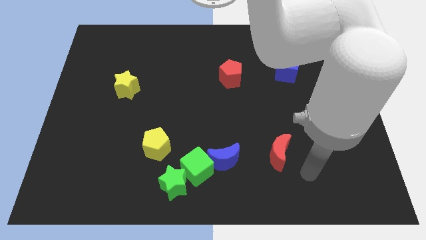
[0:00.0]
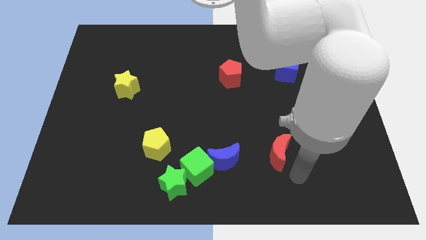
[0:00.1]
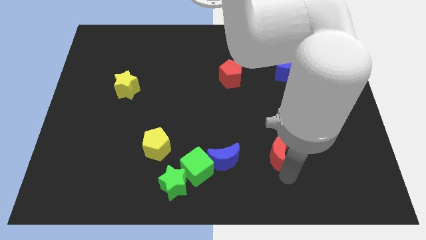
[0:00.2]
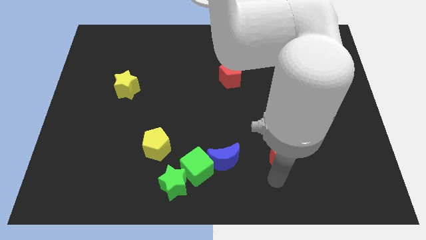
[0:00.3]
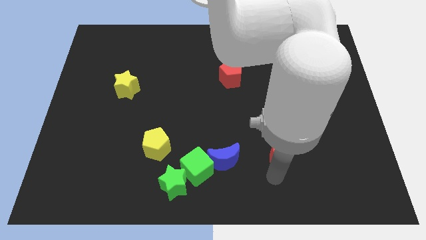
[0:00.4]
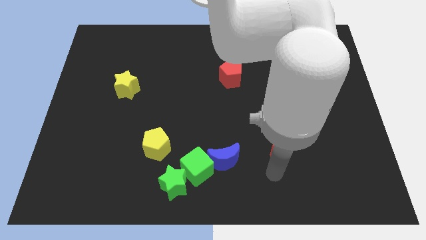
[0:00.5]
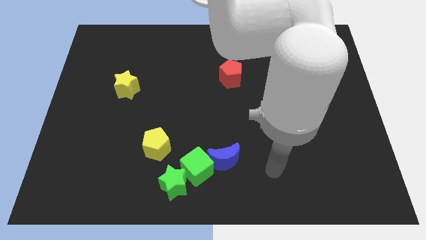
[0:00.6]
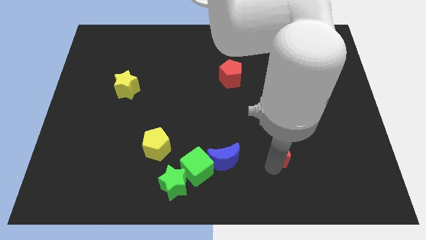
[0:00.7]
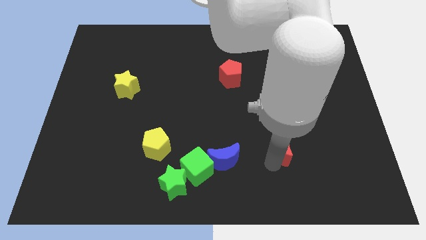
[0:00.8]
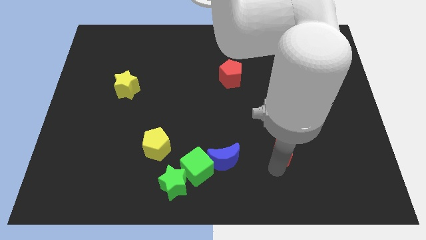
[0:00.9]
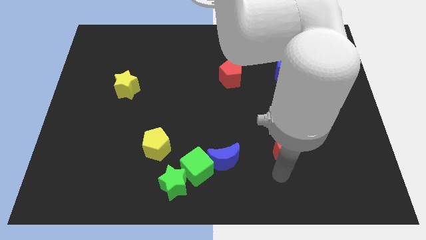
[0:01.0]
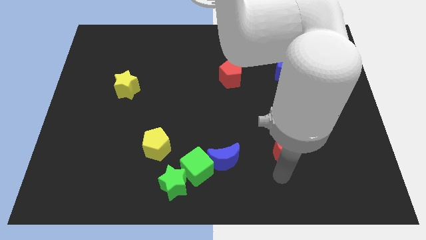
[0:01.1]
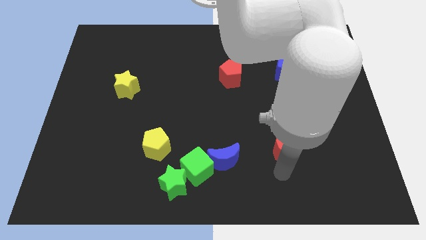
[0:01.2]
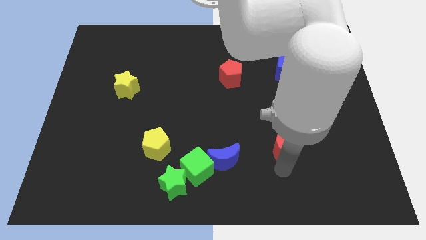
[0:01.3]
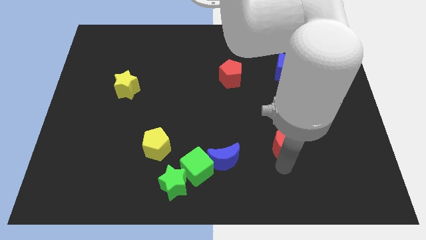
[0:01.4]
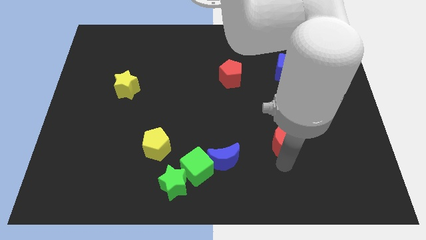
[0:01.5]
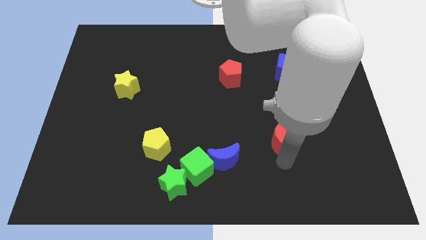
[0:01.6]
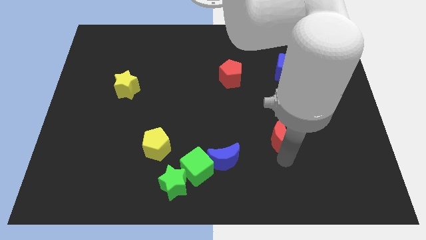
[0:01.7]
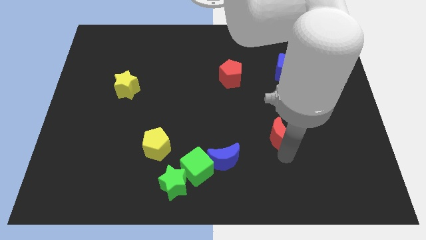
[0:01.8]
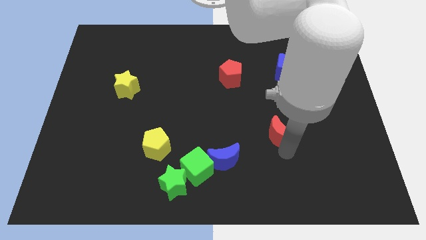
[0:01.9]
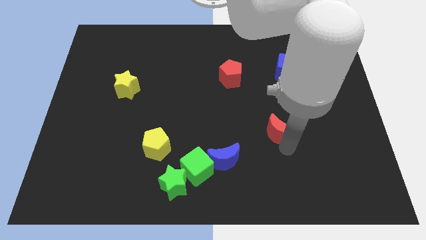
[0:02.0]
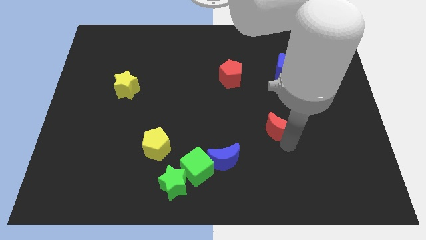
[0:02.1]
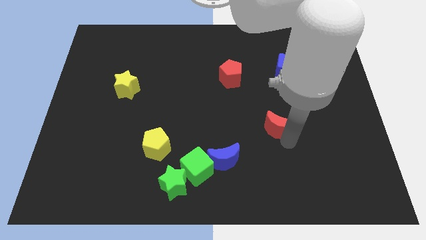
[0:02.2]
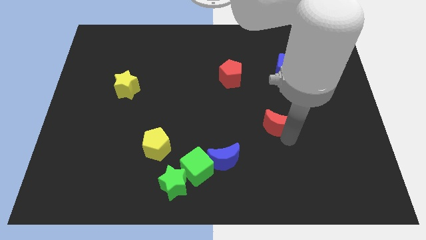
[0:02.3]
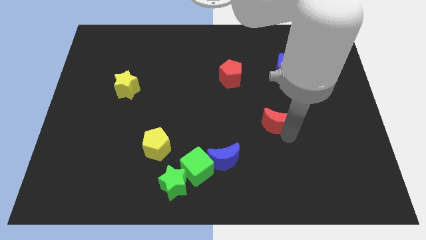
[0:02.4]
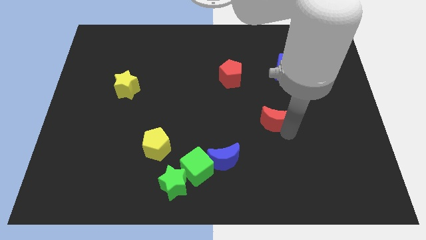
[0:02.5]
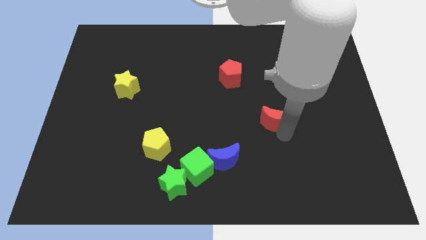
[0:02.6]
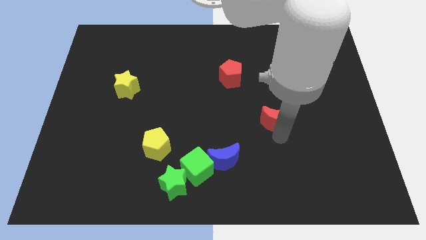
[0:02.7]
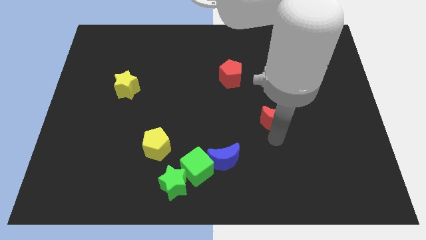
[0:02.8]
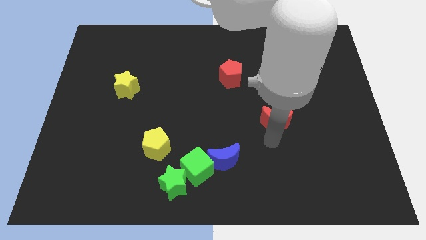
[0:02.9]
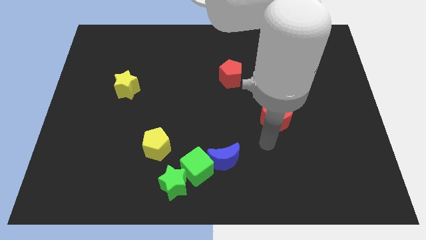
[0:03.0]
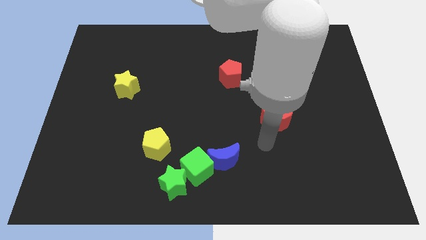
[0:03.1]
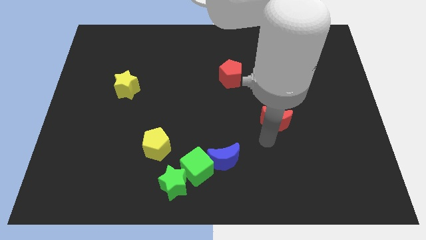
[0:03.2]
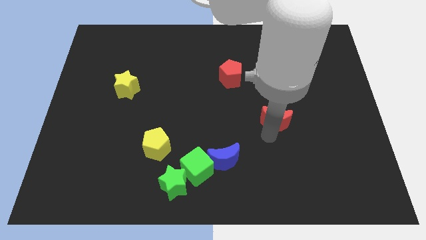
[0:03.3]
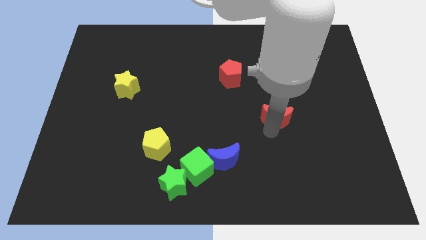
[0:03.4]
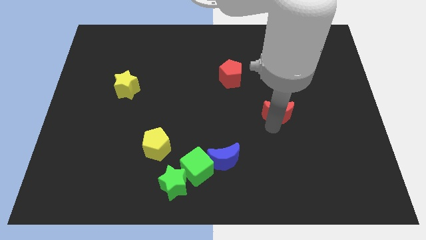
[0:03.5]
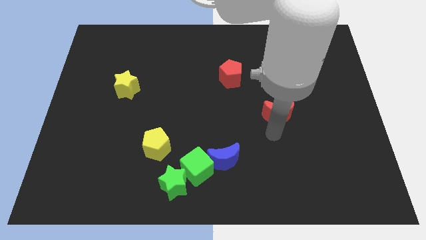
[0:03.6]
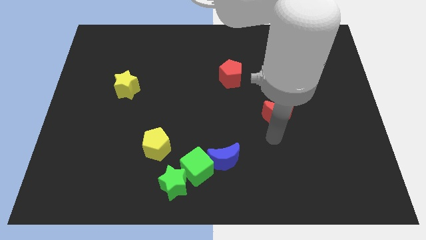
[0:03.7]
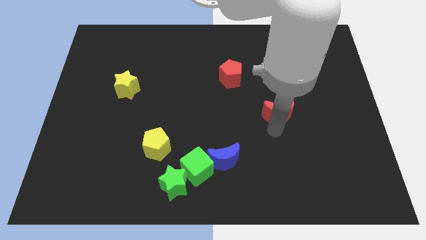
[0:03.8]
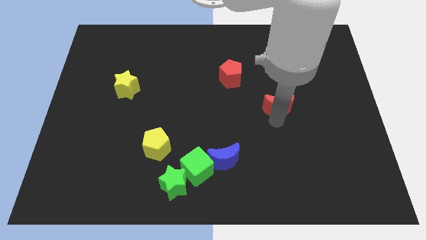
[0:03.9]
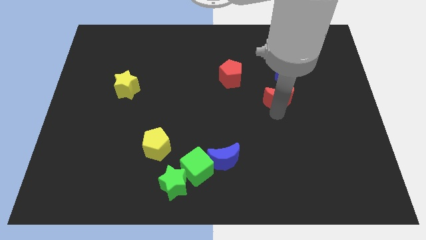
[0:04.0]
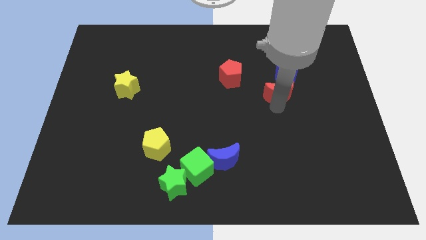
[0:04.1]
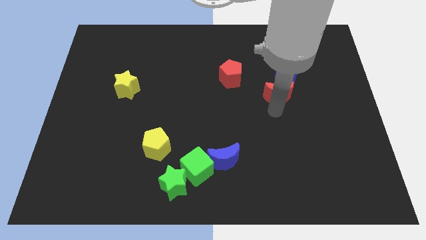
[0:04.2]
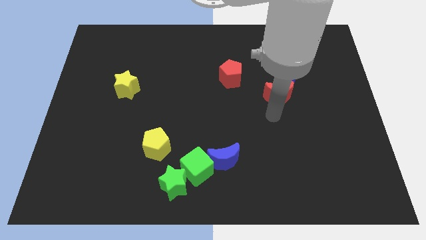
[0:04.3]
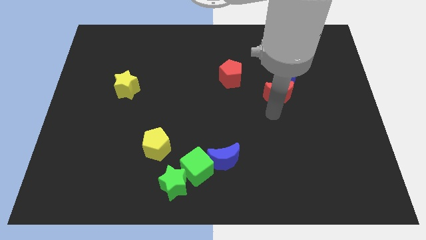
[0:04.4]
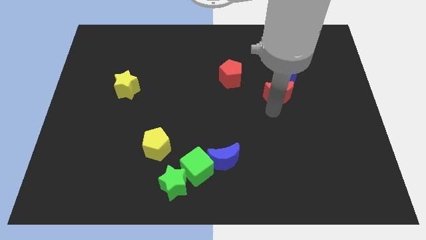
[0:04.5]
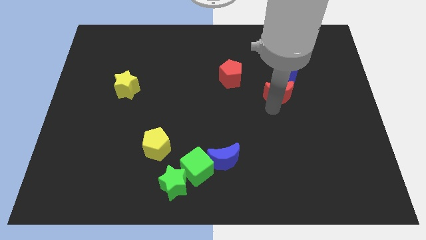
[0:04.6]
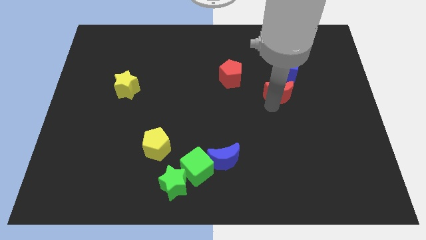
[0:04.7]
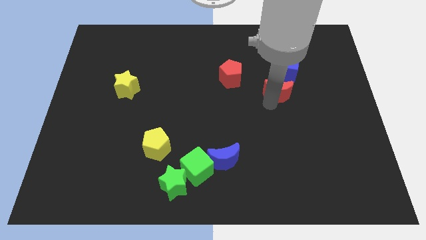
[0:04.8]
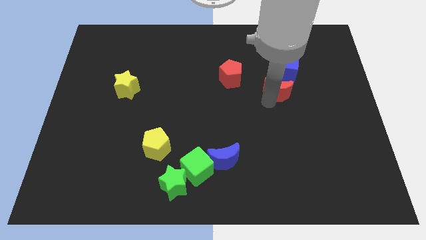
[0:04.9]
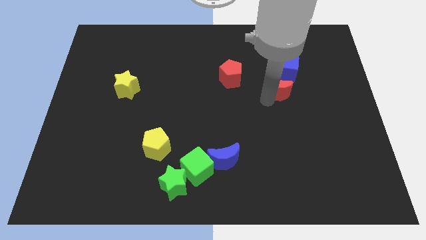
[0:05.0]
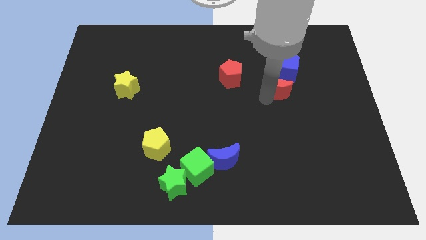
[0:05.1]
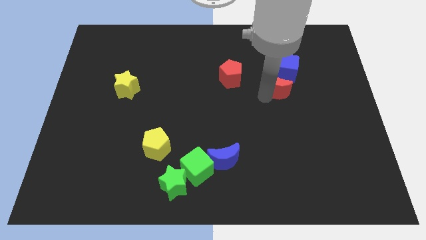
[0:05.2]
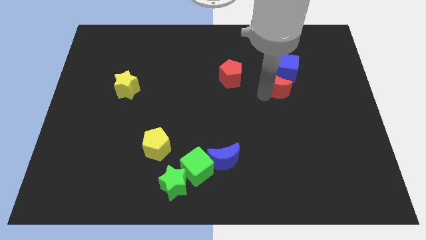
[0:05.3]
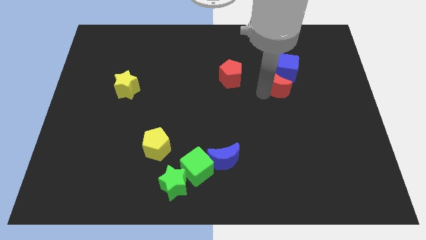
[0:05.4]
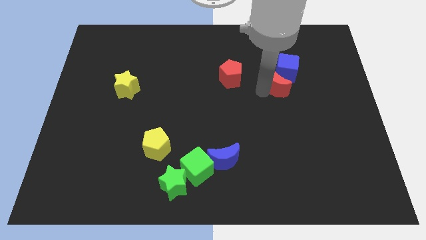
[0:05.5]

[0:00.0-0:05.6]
move the red moon to the blue cube

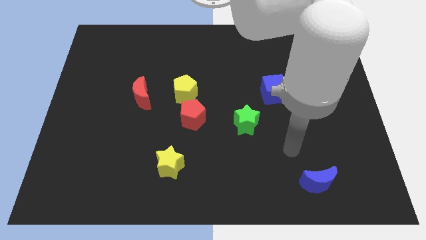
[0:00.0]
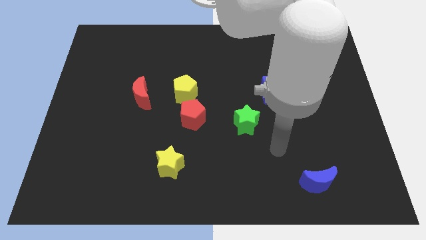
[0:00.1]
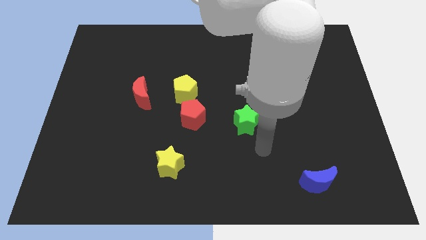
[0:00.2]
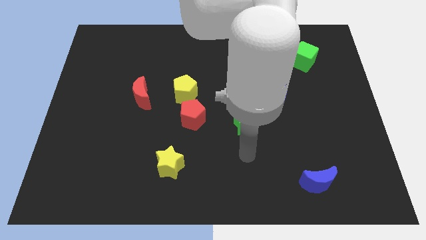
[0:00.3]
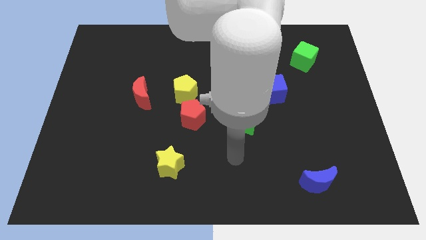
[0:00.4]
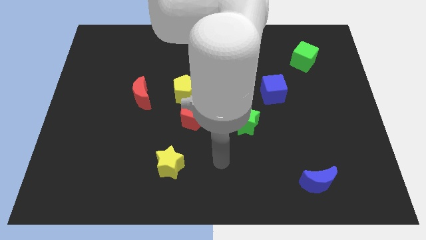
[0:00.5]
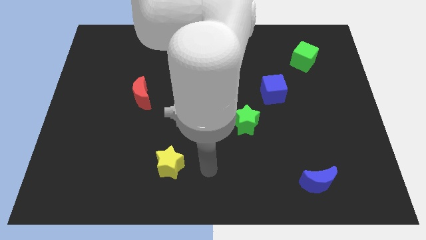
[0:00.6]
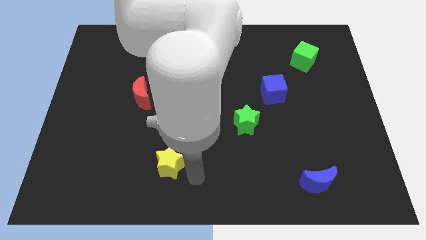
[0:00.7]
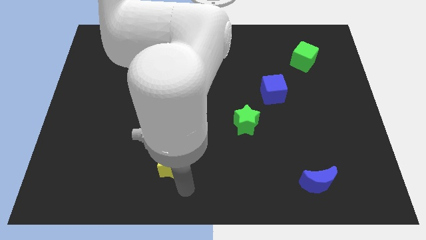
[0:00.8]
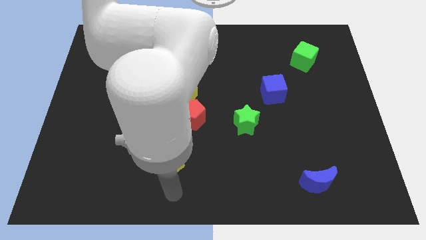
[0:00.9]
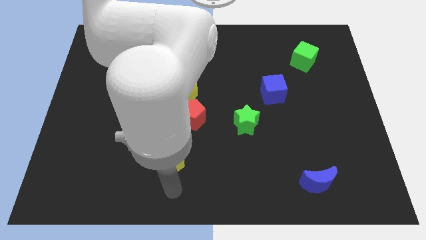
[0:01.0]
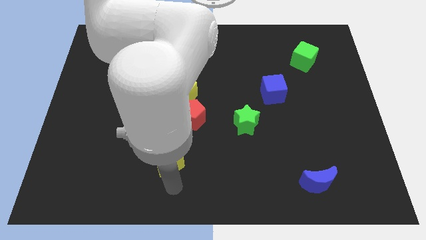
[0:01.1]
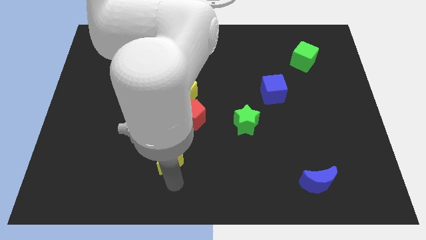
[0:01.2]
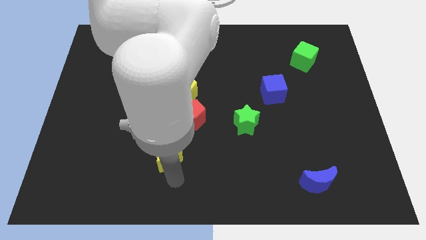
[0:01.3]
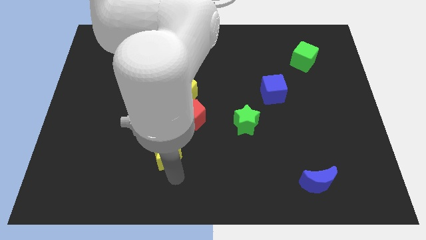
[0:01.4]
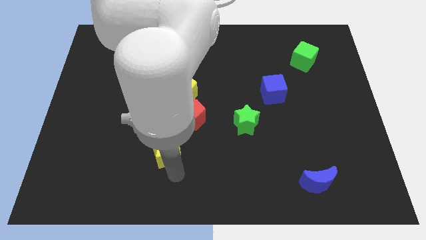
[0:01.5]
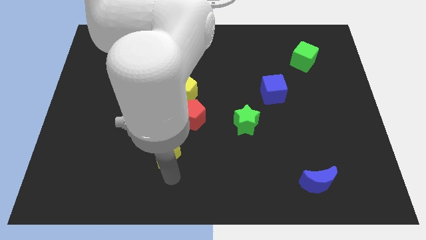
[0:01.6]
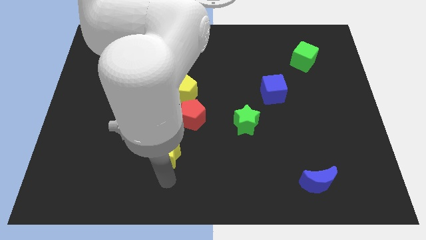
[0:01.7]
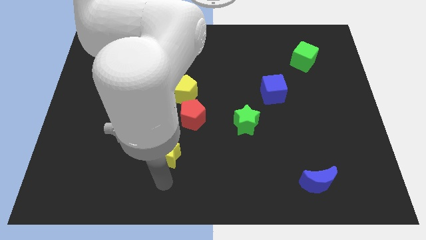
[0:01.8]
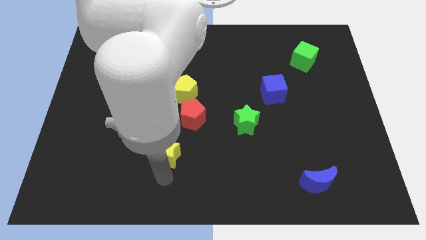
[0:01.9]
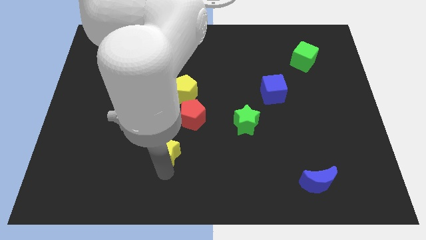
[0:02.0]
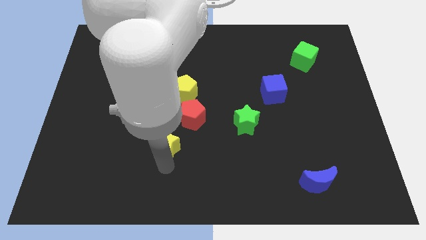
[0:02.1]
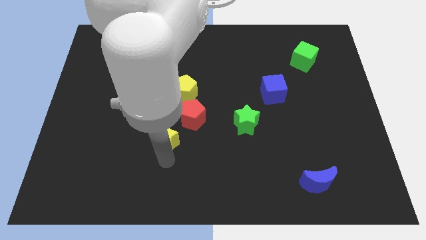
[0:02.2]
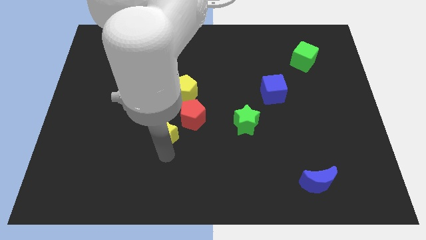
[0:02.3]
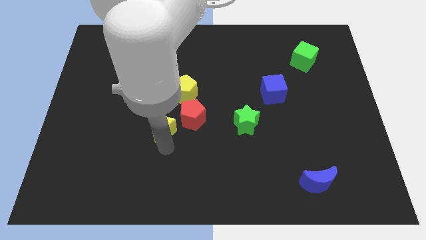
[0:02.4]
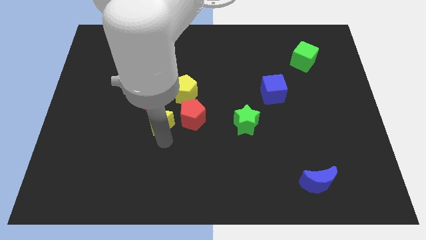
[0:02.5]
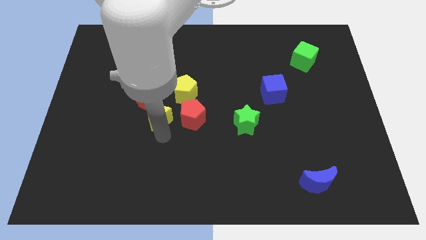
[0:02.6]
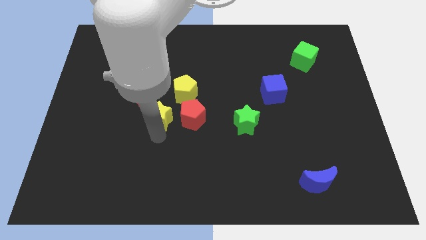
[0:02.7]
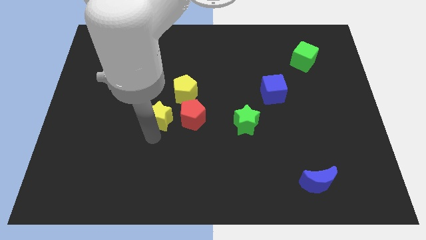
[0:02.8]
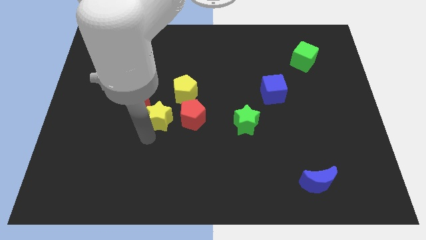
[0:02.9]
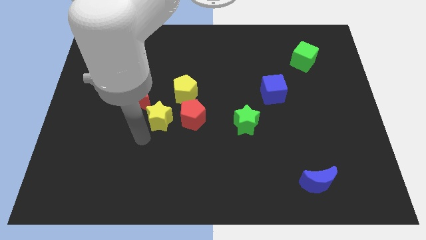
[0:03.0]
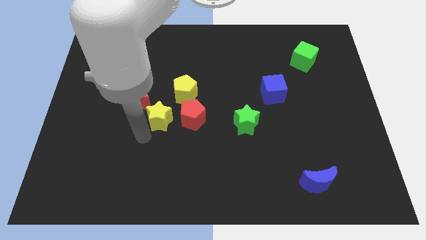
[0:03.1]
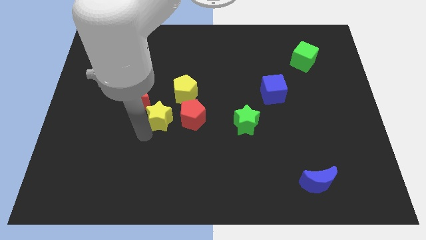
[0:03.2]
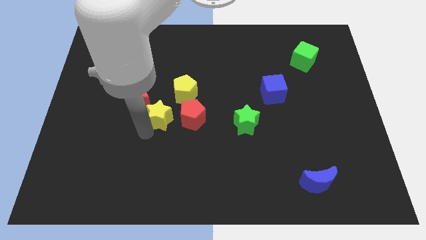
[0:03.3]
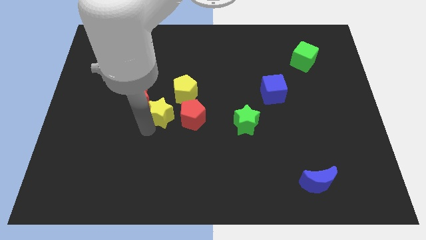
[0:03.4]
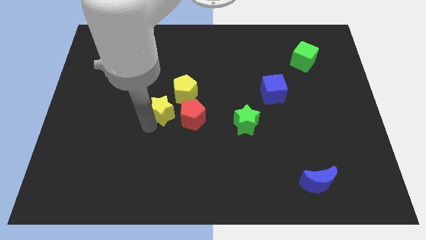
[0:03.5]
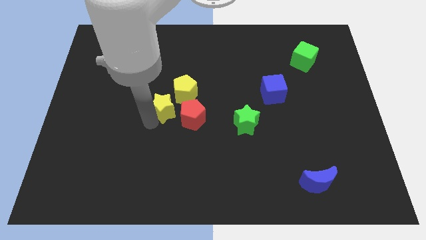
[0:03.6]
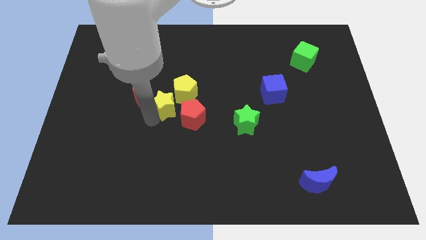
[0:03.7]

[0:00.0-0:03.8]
push the yellow star close to the yellow pentagon
